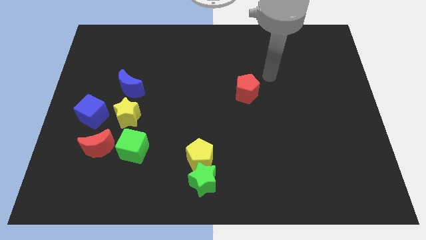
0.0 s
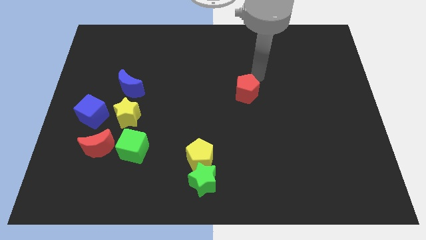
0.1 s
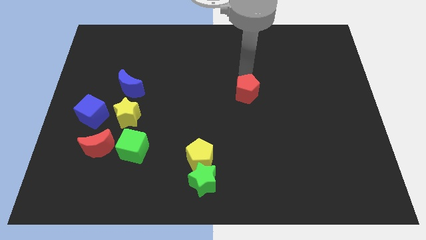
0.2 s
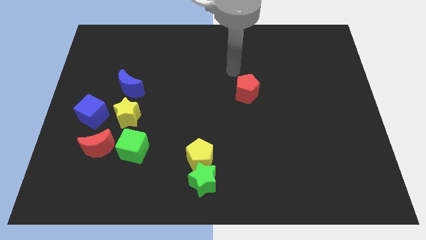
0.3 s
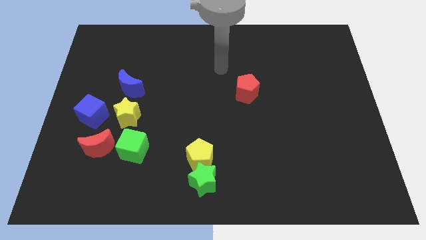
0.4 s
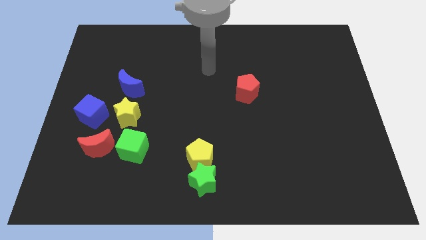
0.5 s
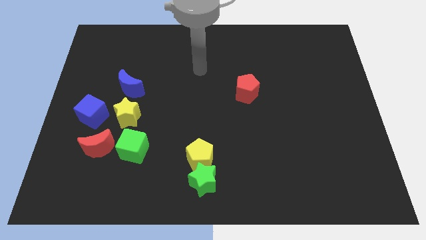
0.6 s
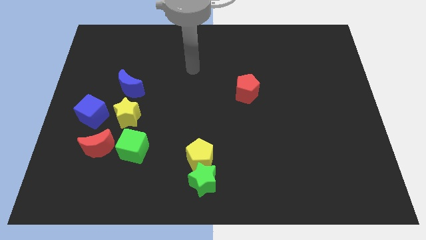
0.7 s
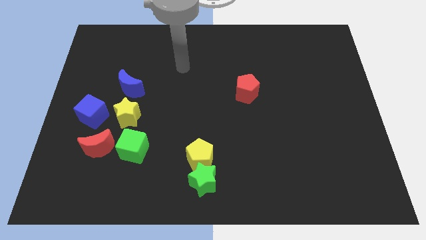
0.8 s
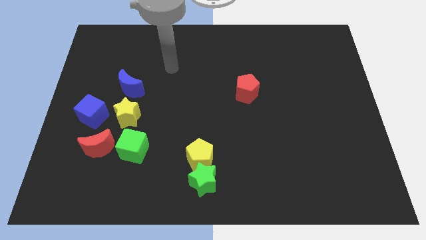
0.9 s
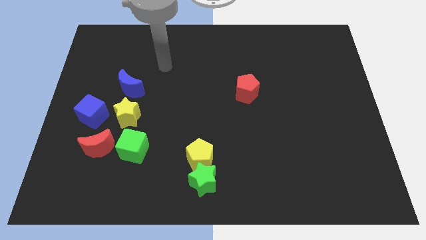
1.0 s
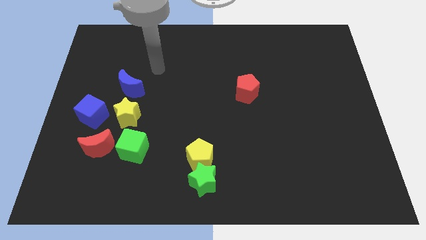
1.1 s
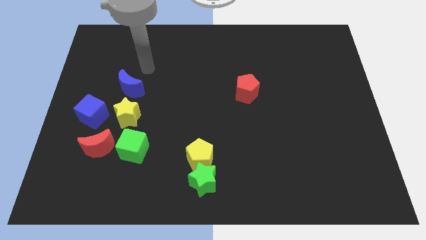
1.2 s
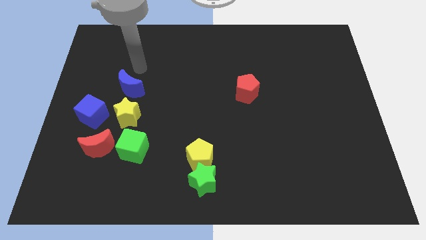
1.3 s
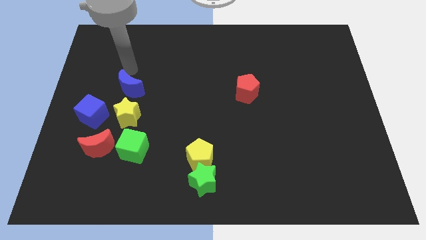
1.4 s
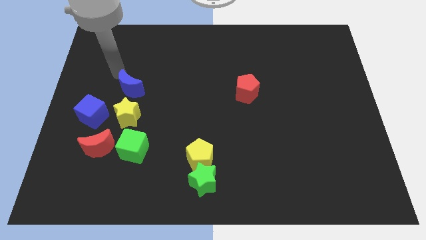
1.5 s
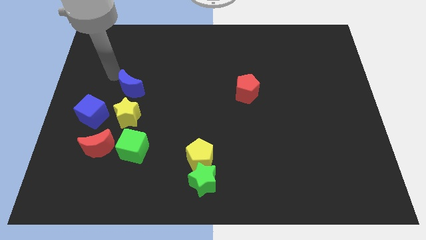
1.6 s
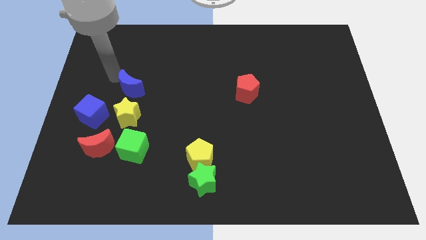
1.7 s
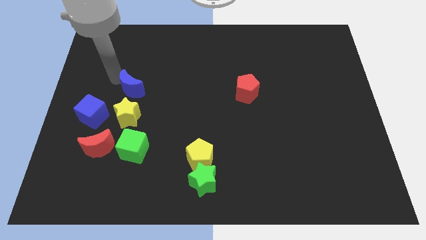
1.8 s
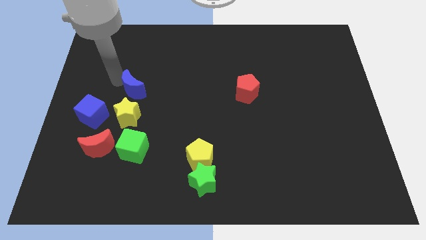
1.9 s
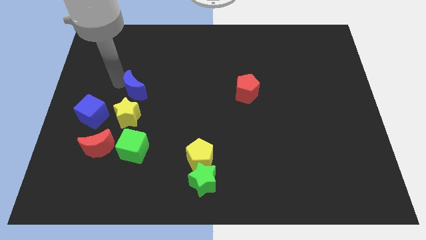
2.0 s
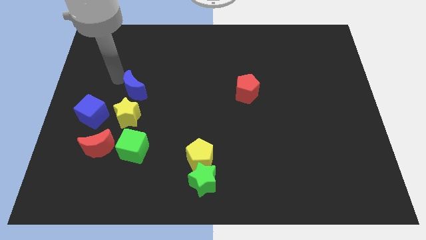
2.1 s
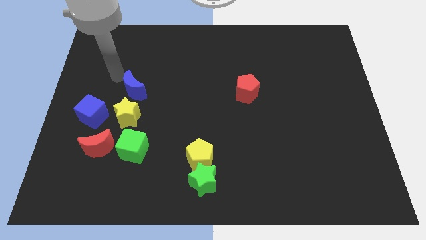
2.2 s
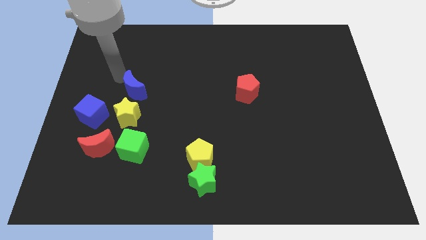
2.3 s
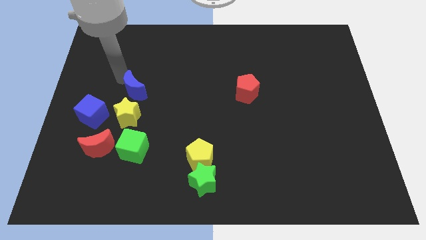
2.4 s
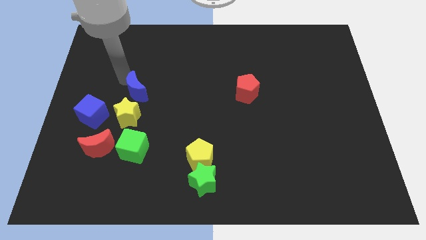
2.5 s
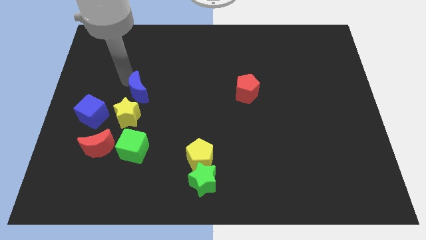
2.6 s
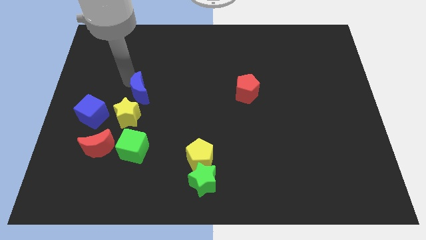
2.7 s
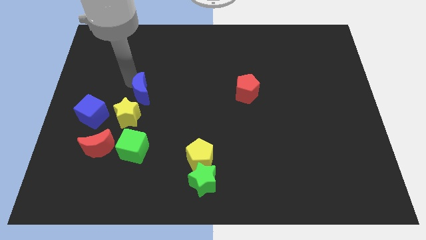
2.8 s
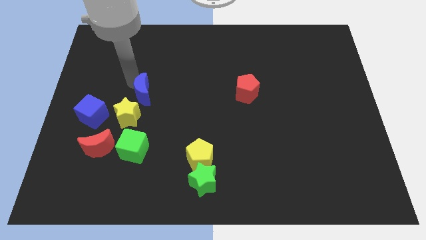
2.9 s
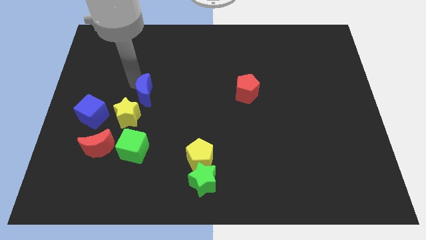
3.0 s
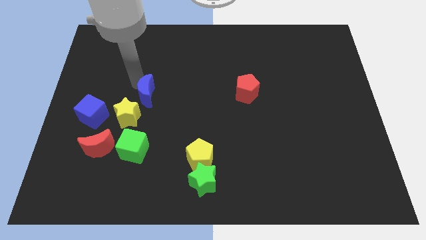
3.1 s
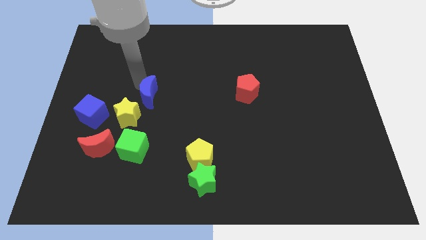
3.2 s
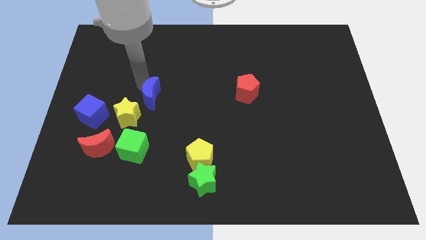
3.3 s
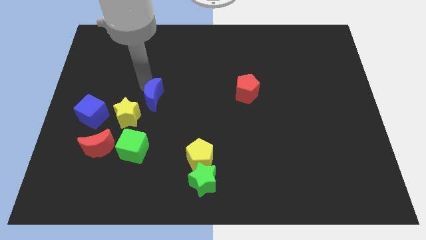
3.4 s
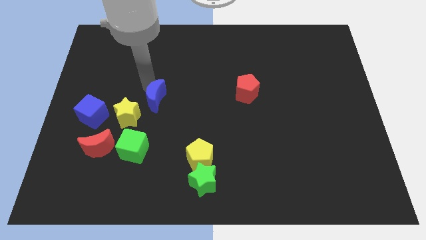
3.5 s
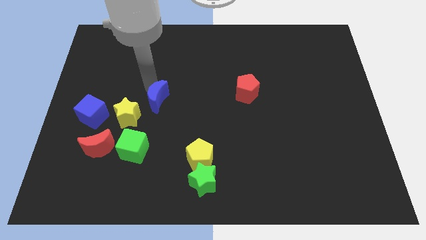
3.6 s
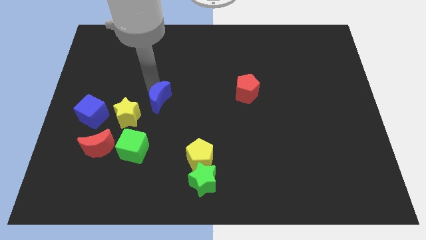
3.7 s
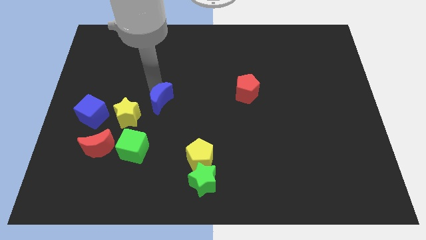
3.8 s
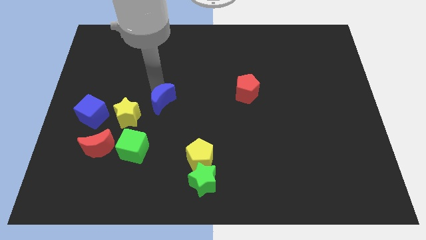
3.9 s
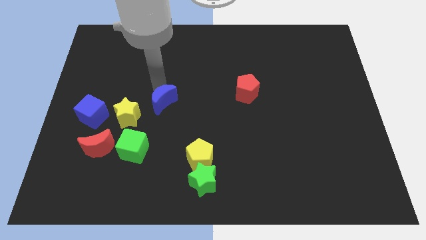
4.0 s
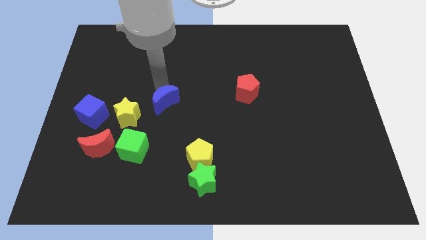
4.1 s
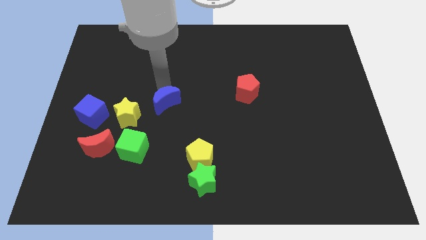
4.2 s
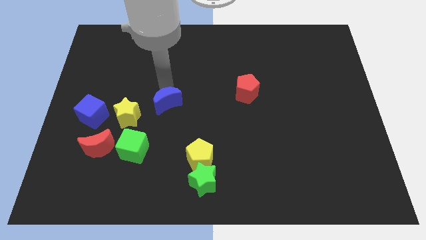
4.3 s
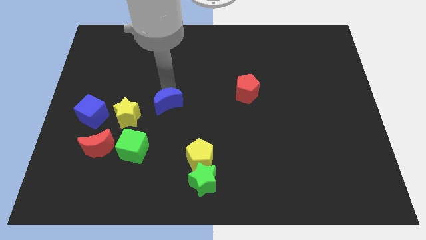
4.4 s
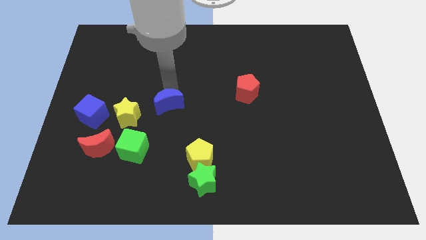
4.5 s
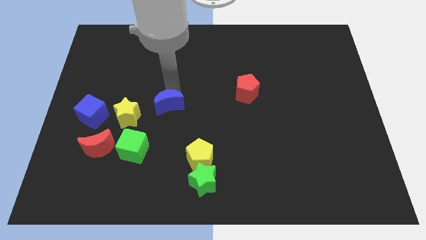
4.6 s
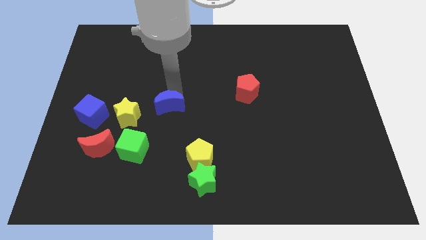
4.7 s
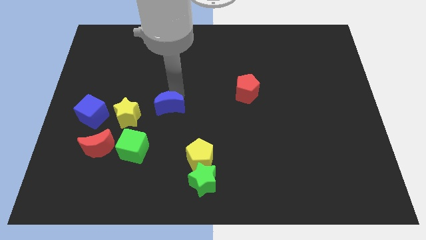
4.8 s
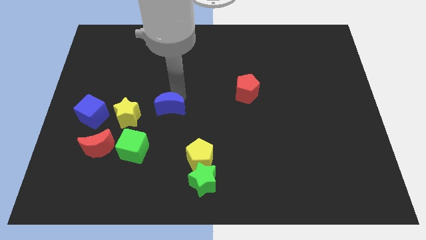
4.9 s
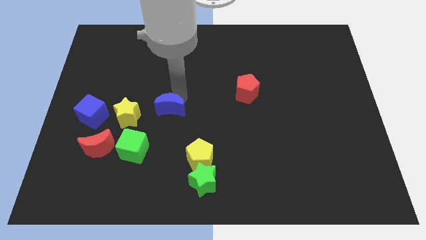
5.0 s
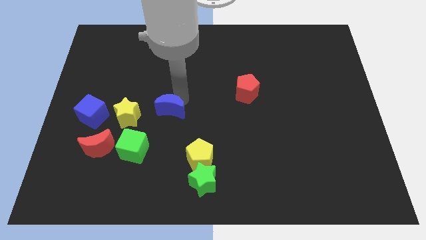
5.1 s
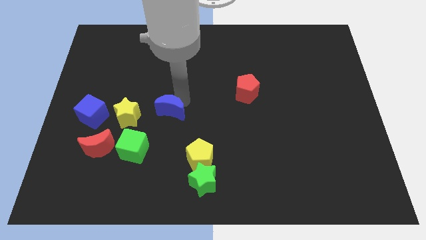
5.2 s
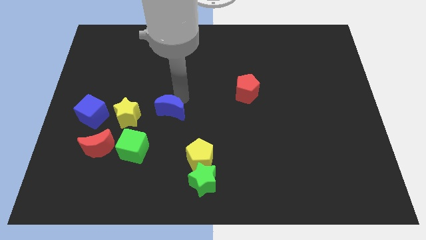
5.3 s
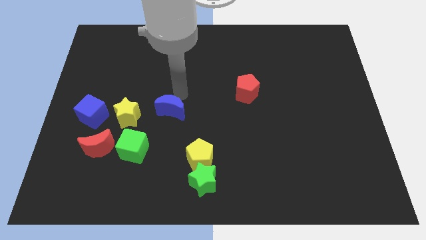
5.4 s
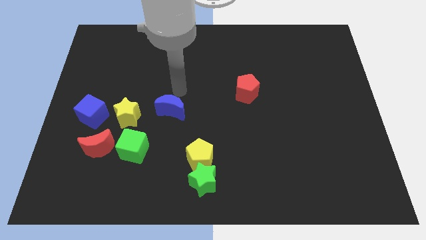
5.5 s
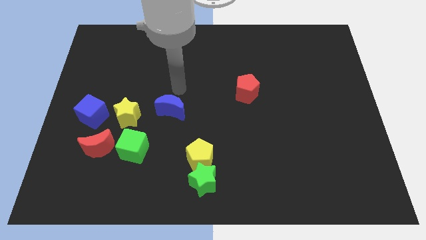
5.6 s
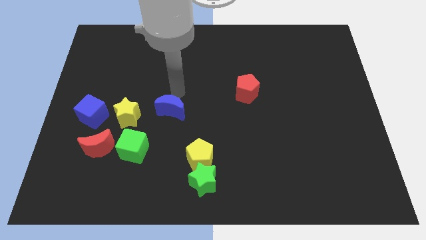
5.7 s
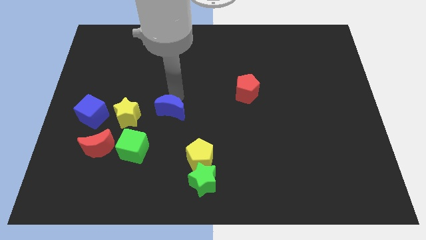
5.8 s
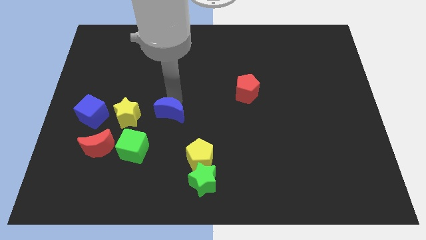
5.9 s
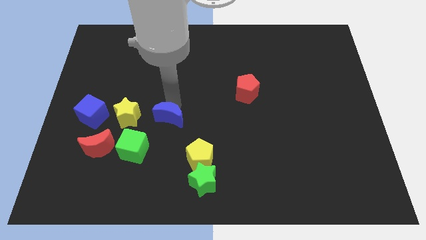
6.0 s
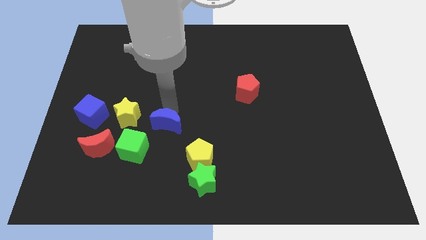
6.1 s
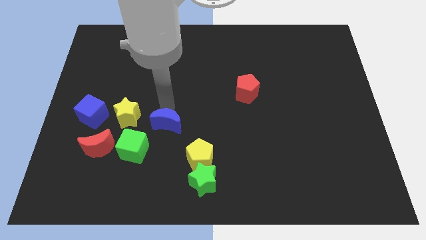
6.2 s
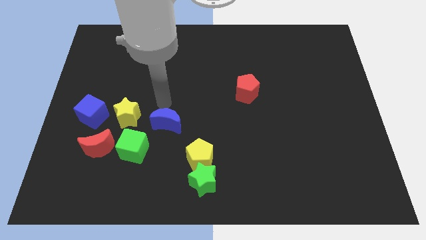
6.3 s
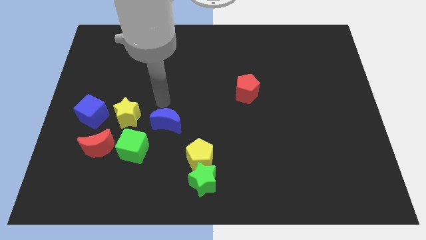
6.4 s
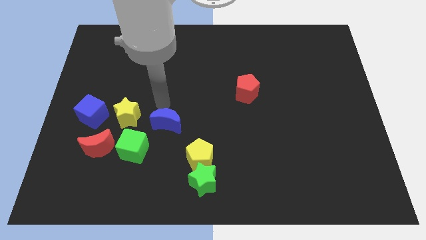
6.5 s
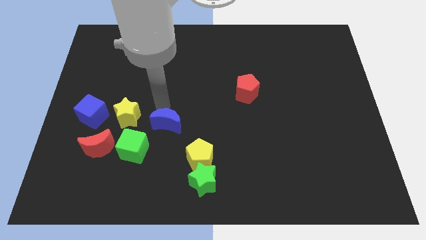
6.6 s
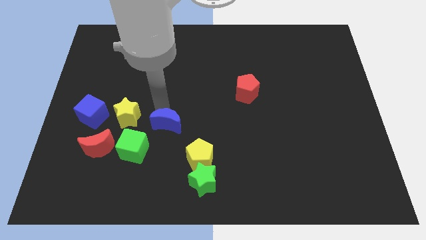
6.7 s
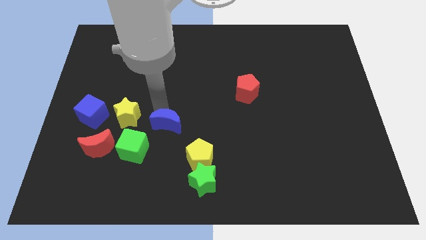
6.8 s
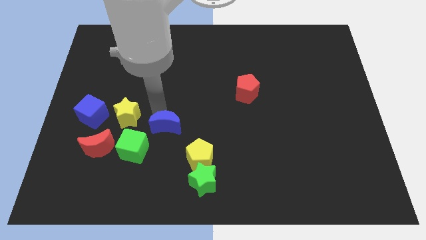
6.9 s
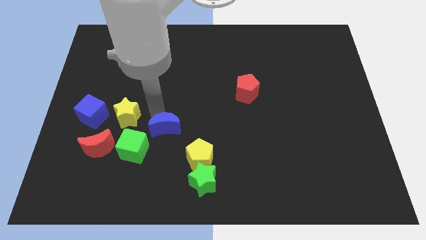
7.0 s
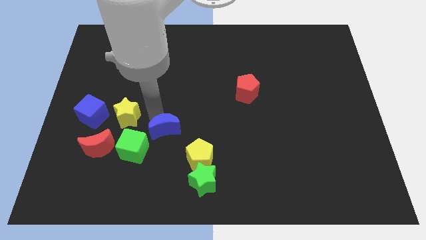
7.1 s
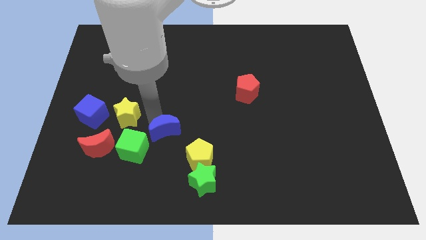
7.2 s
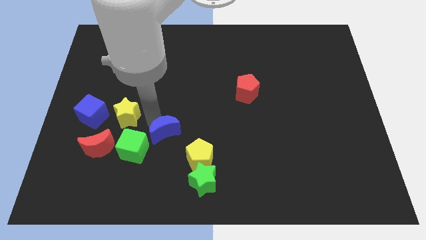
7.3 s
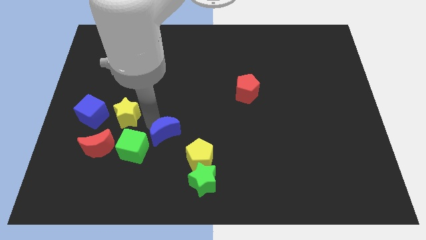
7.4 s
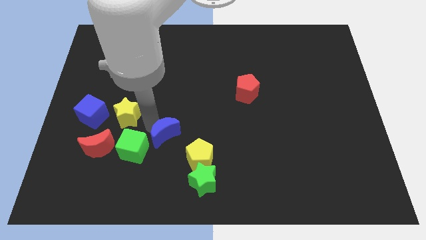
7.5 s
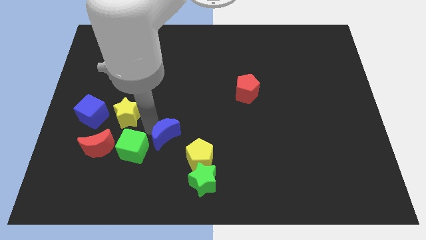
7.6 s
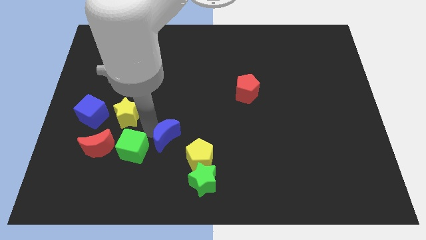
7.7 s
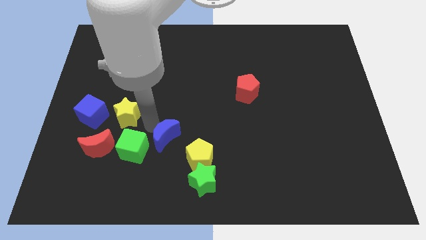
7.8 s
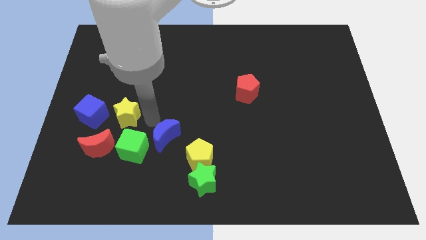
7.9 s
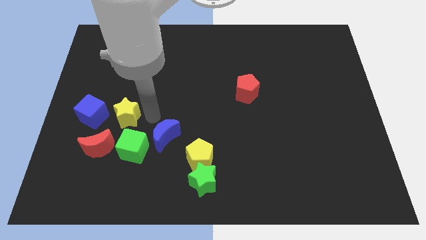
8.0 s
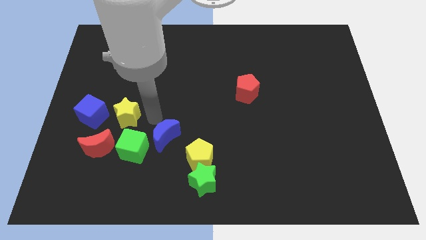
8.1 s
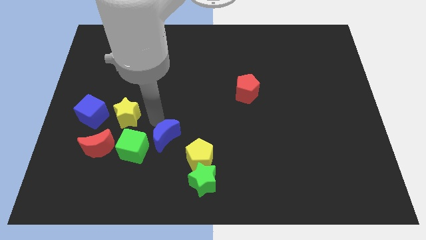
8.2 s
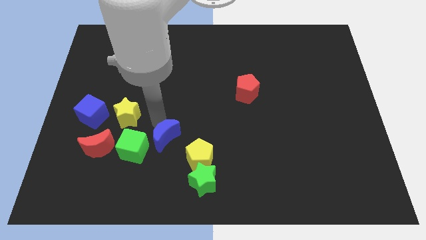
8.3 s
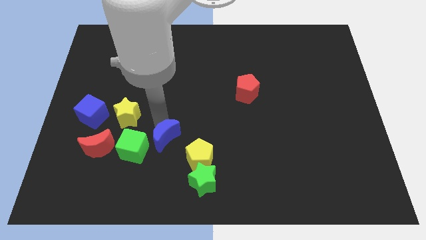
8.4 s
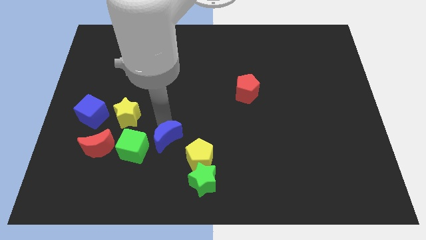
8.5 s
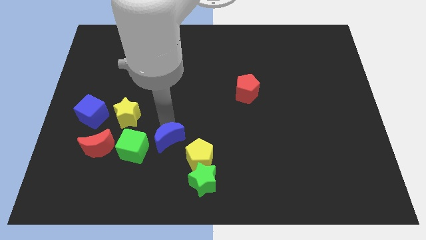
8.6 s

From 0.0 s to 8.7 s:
move the blue moon to the top left of the green star
